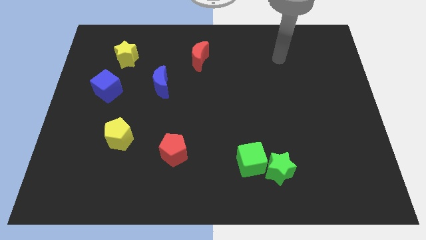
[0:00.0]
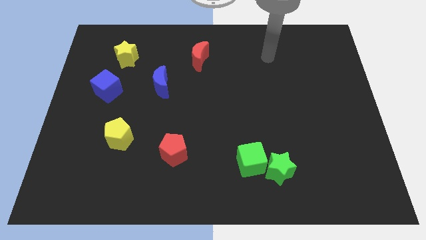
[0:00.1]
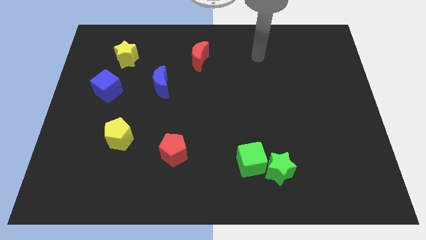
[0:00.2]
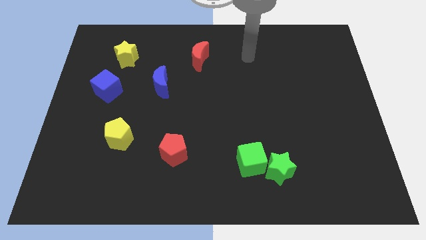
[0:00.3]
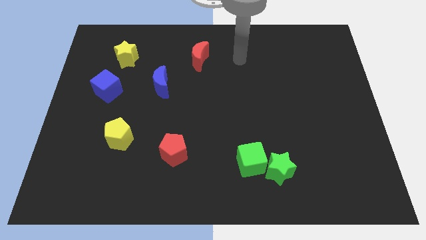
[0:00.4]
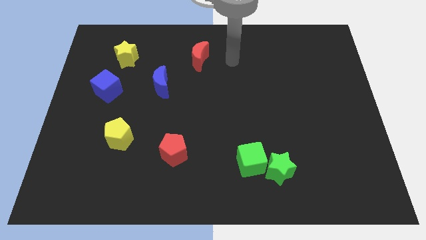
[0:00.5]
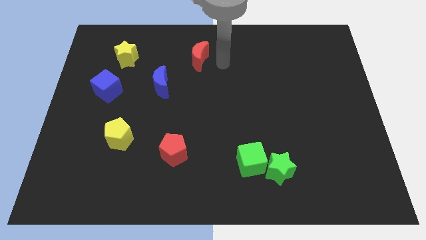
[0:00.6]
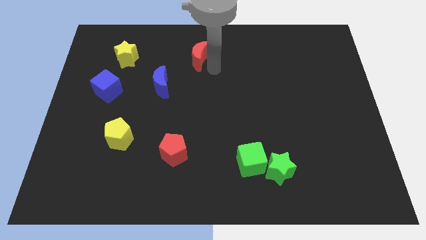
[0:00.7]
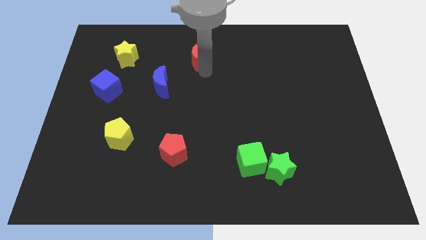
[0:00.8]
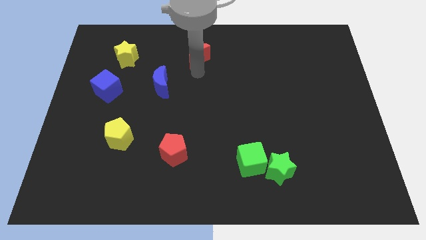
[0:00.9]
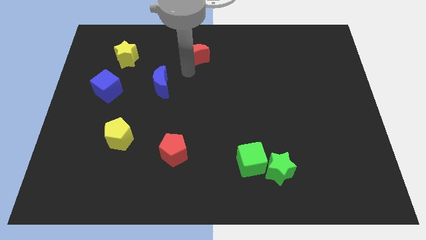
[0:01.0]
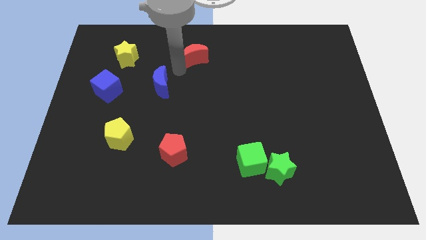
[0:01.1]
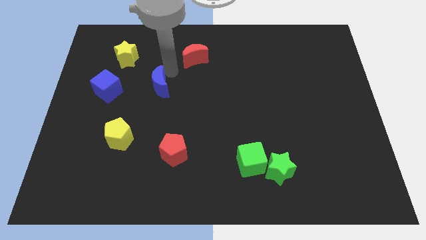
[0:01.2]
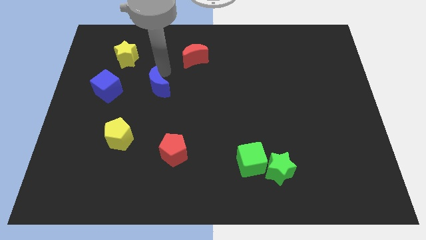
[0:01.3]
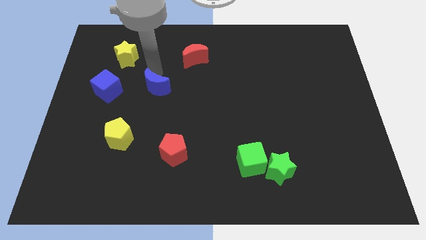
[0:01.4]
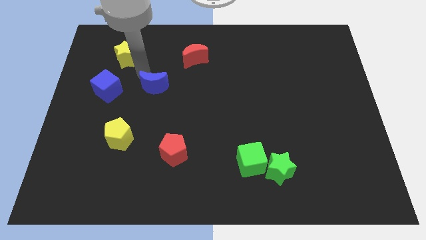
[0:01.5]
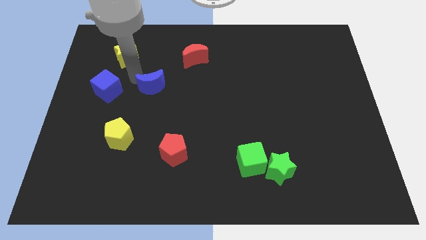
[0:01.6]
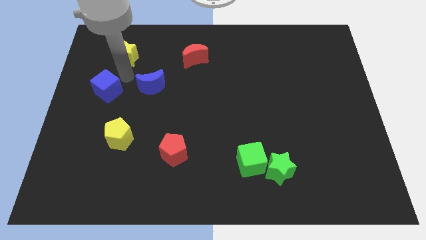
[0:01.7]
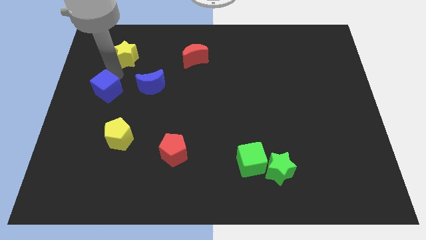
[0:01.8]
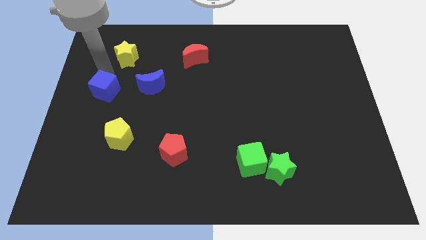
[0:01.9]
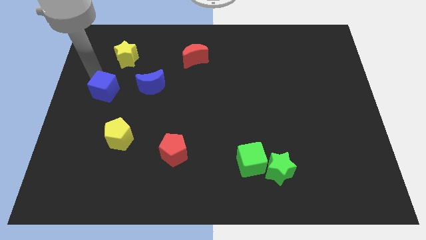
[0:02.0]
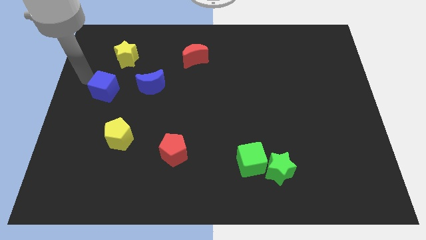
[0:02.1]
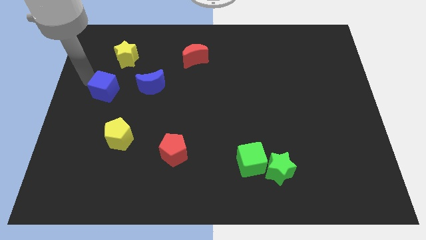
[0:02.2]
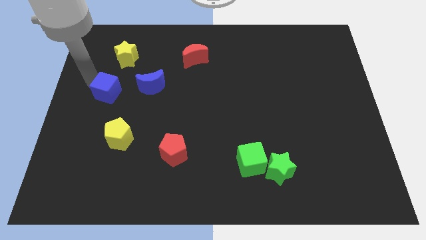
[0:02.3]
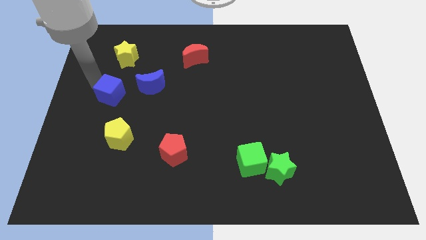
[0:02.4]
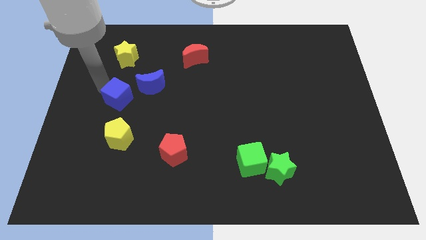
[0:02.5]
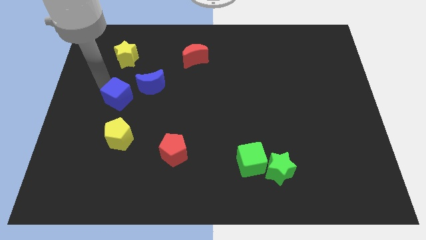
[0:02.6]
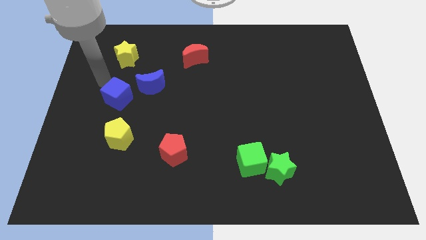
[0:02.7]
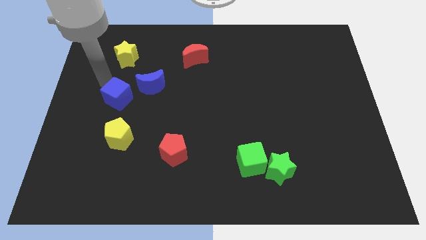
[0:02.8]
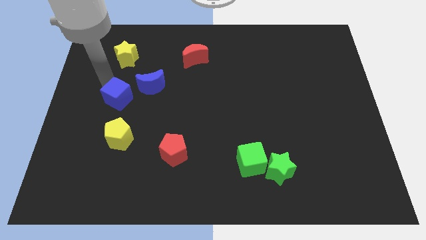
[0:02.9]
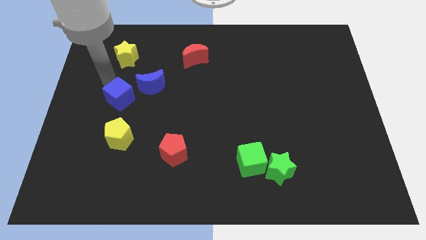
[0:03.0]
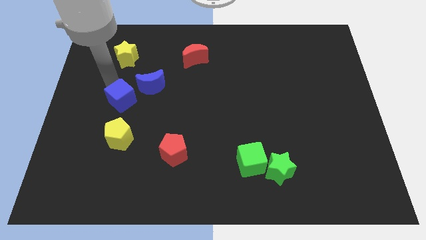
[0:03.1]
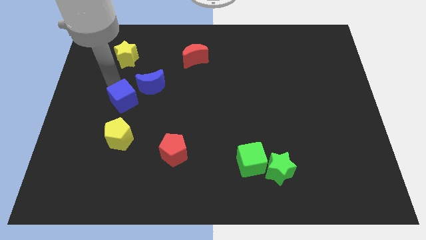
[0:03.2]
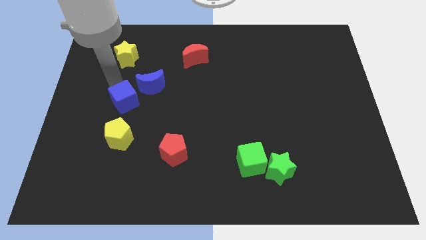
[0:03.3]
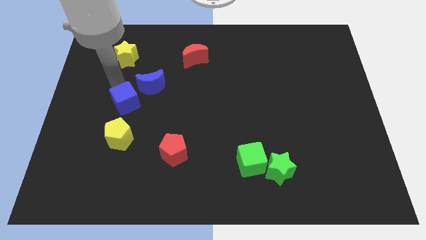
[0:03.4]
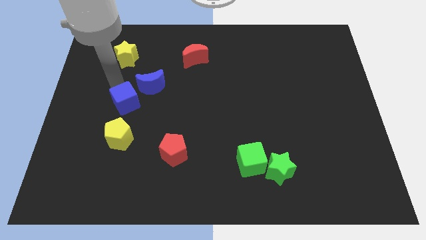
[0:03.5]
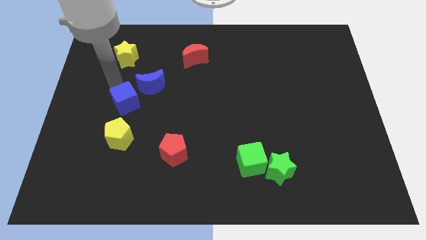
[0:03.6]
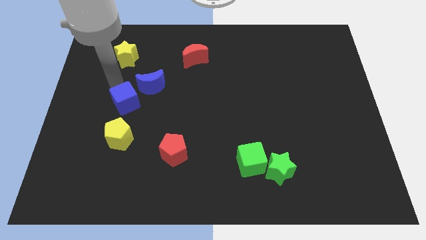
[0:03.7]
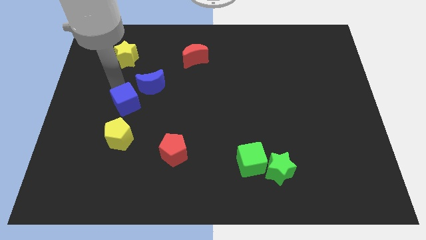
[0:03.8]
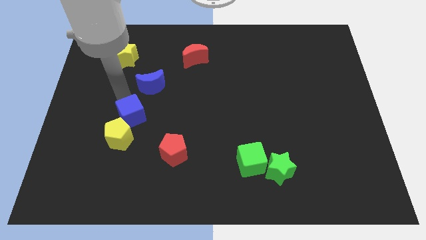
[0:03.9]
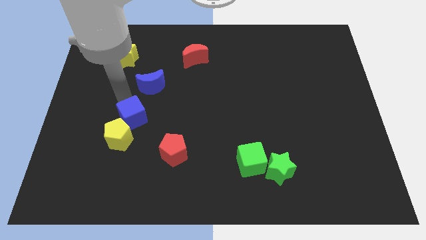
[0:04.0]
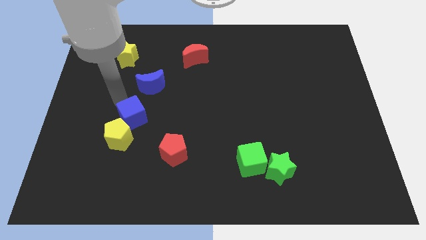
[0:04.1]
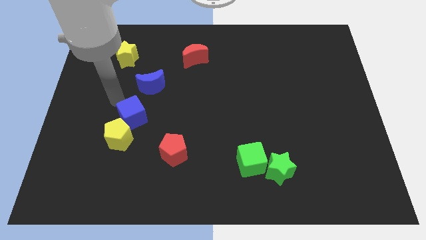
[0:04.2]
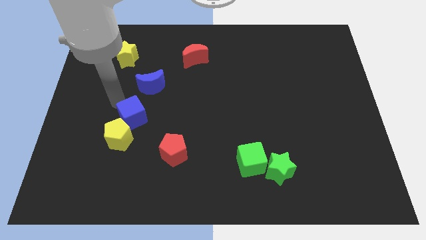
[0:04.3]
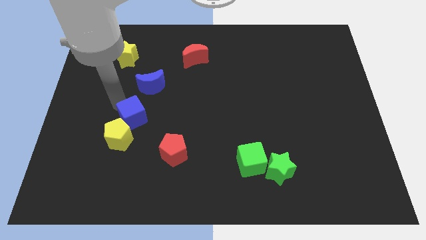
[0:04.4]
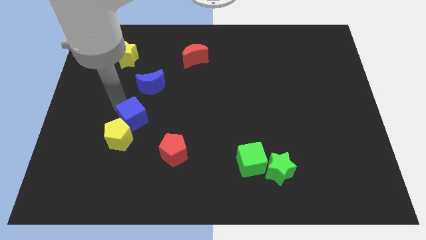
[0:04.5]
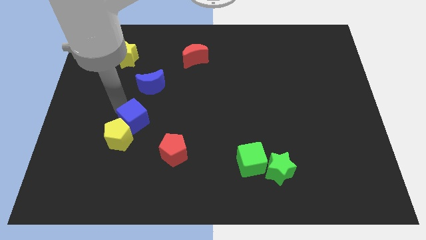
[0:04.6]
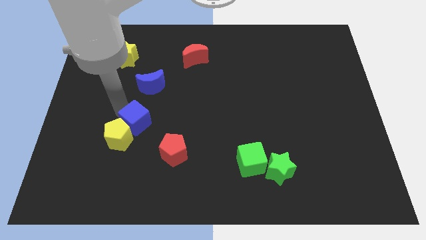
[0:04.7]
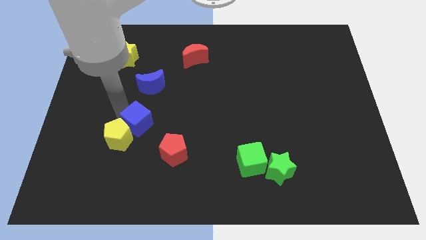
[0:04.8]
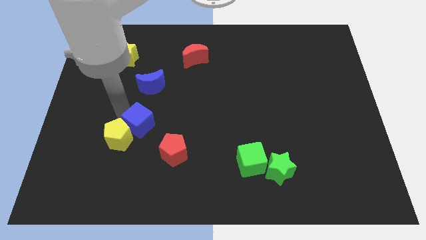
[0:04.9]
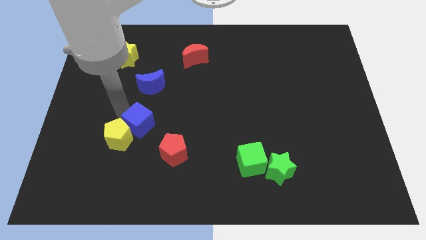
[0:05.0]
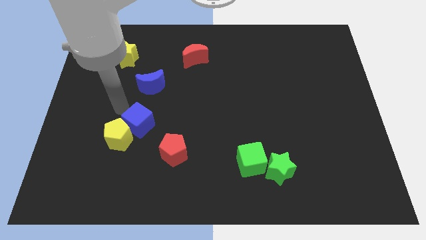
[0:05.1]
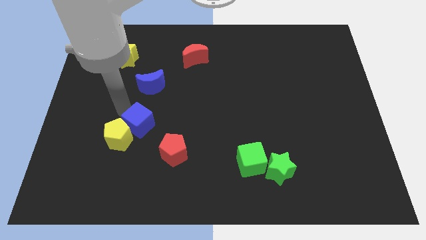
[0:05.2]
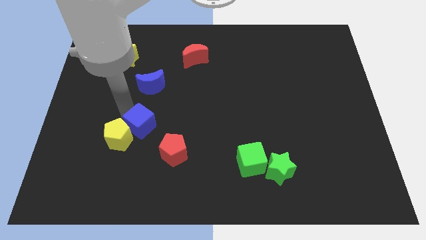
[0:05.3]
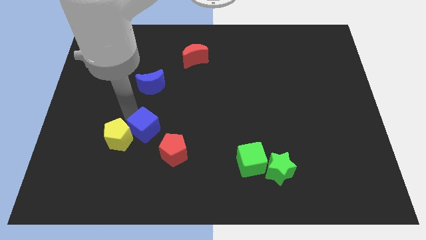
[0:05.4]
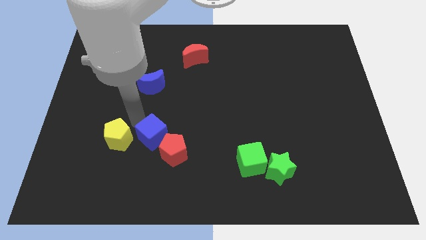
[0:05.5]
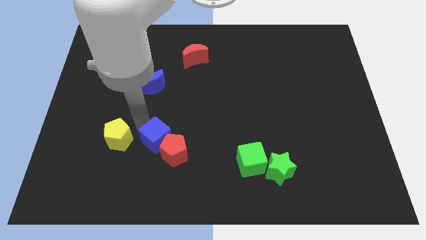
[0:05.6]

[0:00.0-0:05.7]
slide the blue cube towards the red pentagon

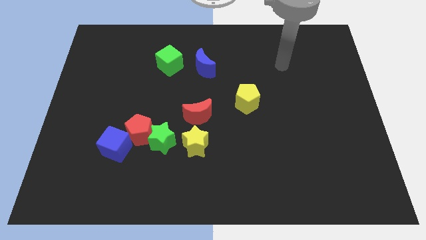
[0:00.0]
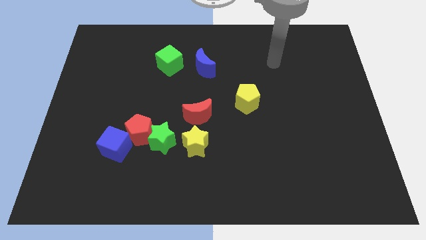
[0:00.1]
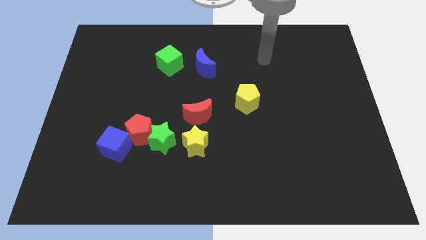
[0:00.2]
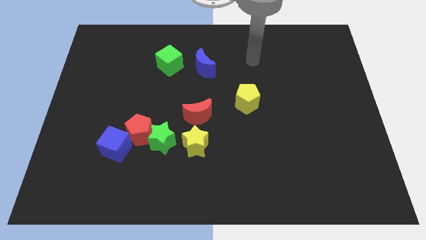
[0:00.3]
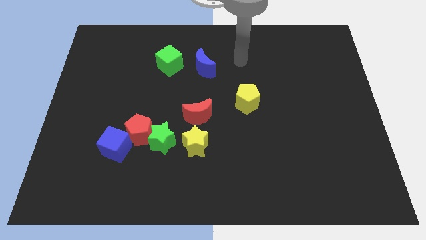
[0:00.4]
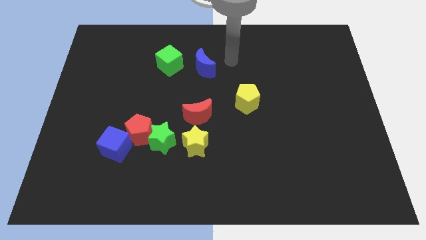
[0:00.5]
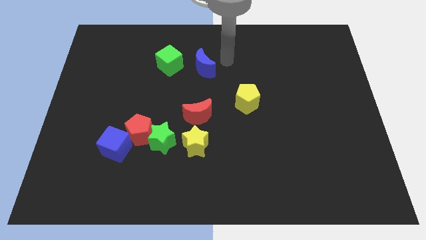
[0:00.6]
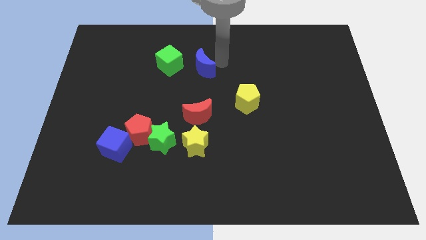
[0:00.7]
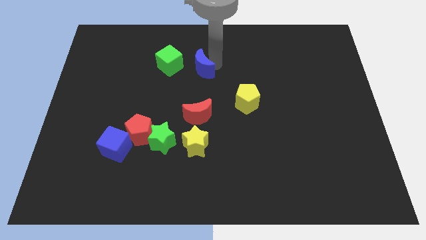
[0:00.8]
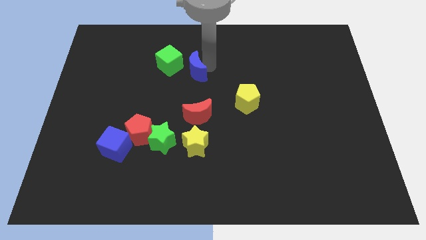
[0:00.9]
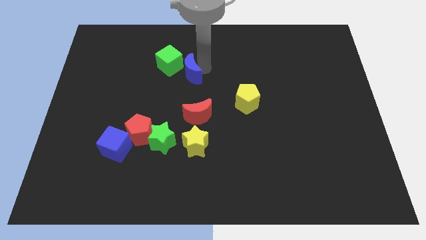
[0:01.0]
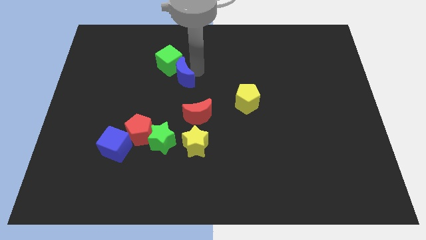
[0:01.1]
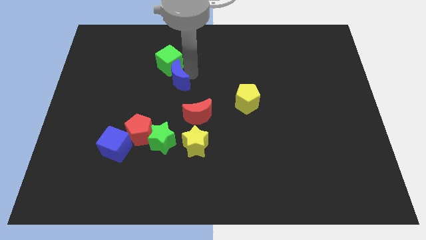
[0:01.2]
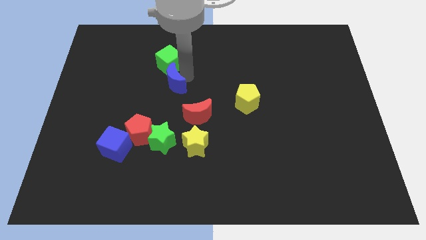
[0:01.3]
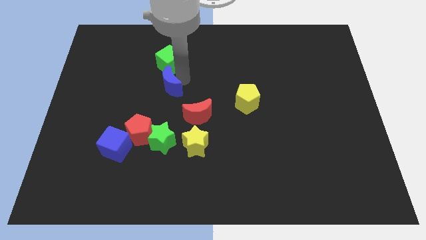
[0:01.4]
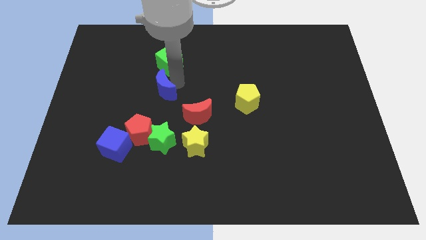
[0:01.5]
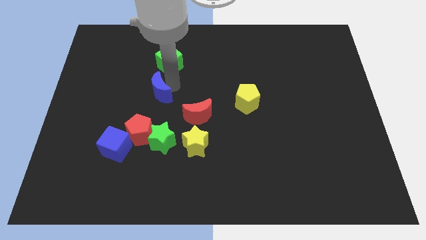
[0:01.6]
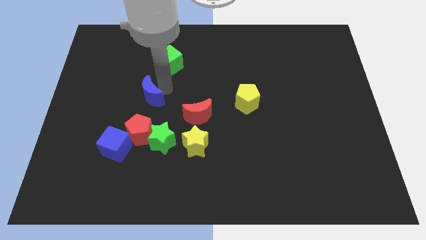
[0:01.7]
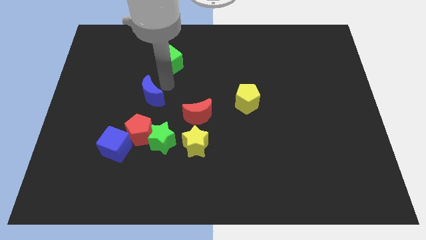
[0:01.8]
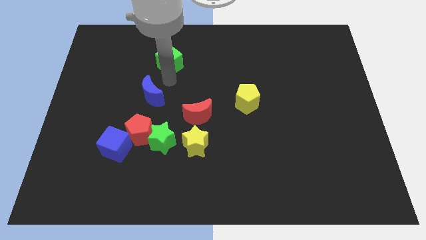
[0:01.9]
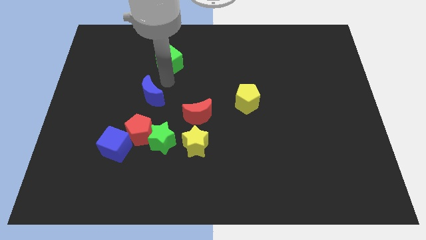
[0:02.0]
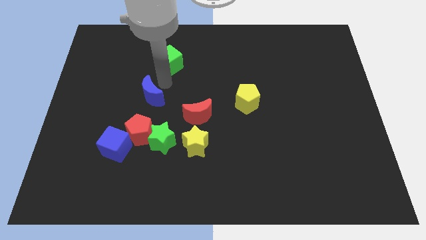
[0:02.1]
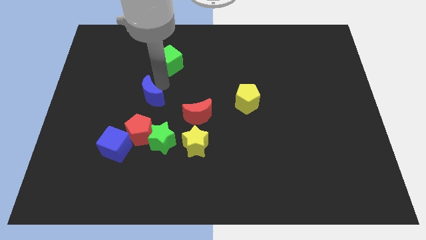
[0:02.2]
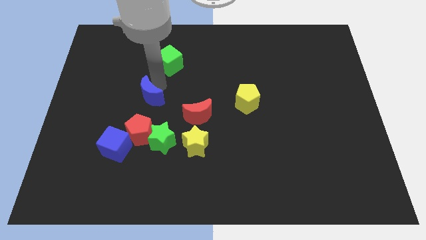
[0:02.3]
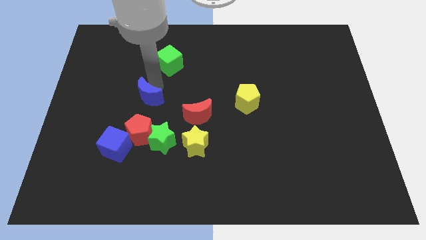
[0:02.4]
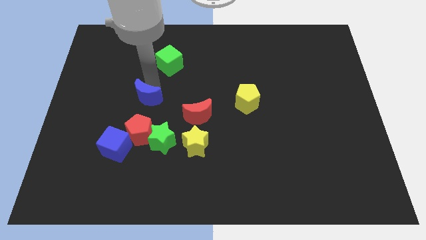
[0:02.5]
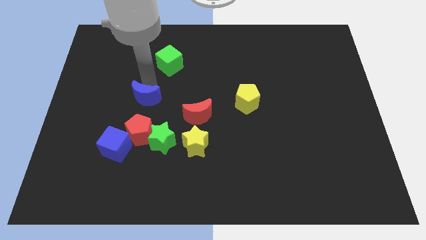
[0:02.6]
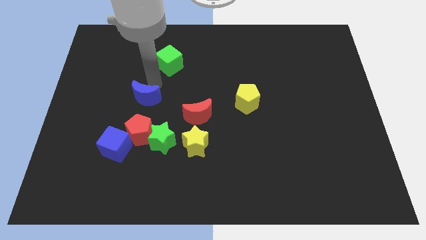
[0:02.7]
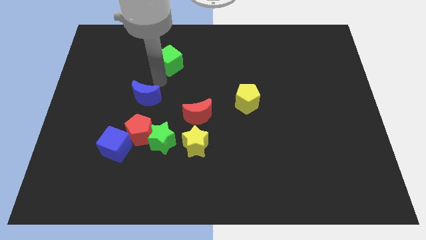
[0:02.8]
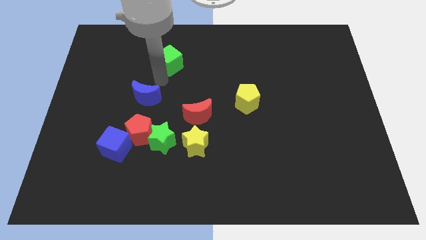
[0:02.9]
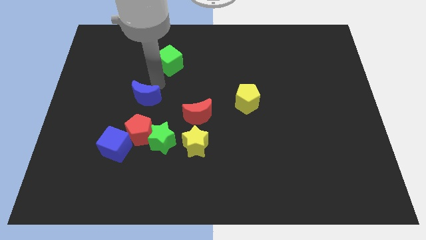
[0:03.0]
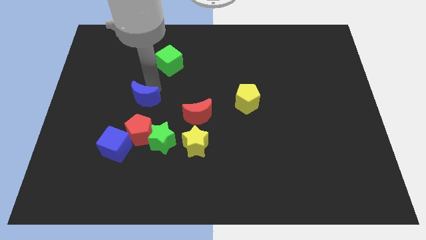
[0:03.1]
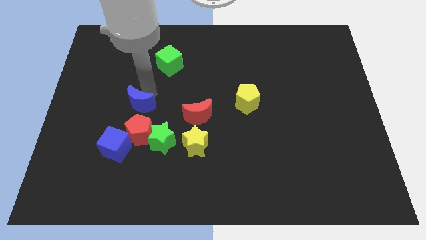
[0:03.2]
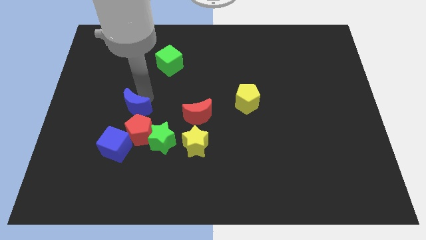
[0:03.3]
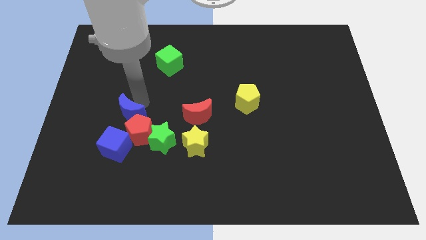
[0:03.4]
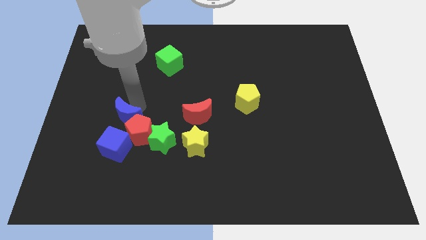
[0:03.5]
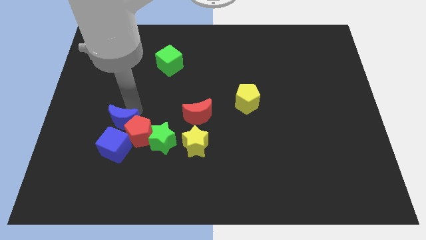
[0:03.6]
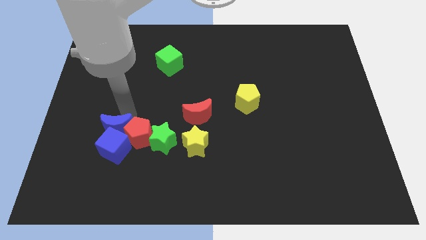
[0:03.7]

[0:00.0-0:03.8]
move the blue moon close to the blue cube
